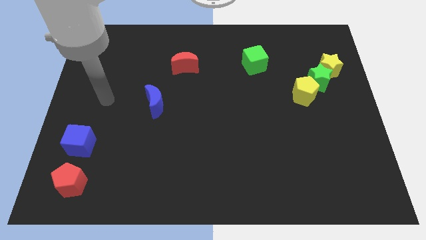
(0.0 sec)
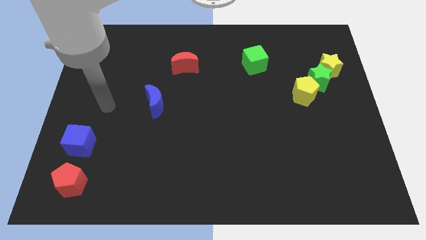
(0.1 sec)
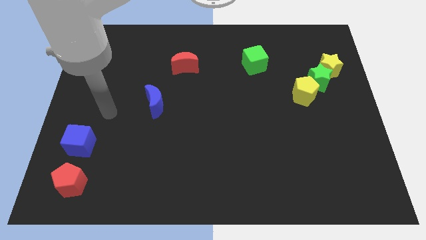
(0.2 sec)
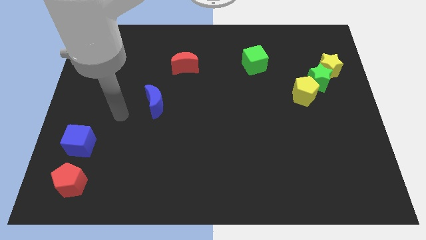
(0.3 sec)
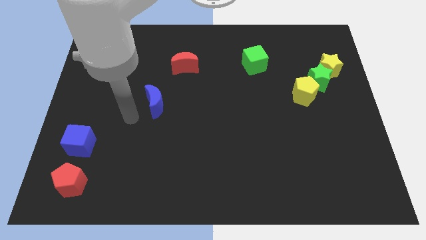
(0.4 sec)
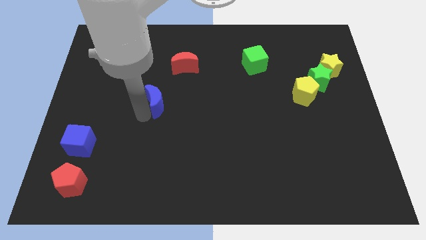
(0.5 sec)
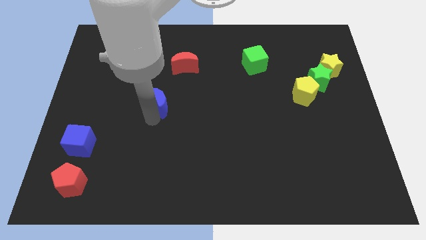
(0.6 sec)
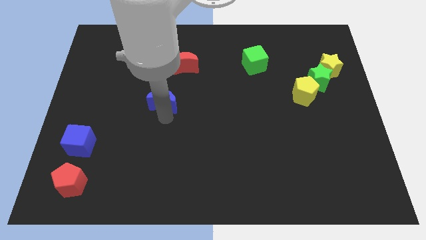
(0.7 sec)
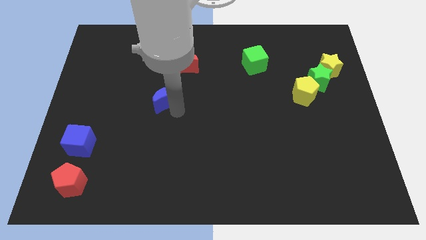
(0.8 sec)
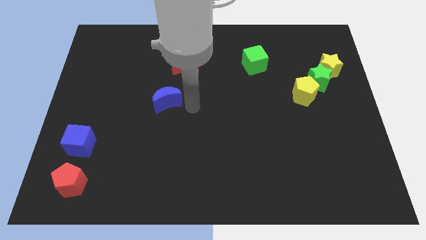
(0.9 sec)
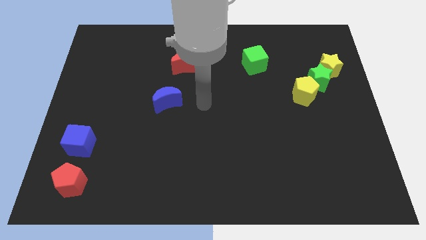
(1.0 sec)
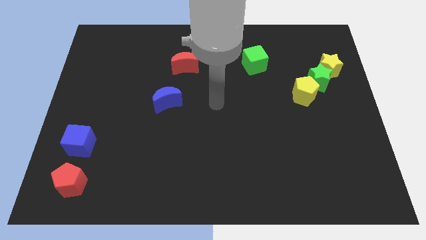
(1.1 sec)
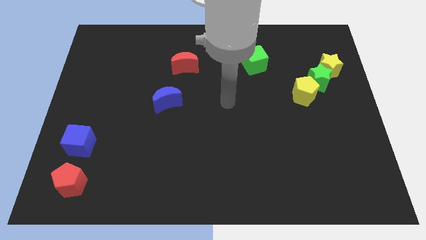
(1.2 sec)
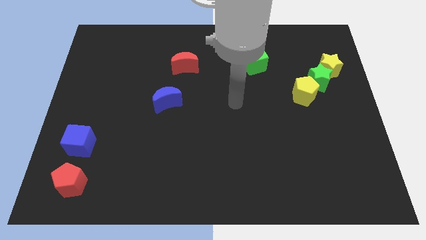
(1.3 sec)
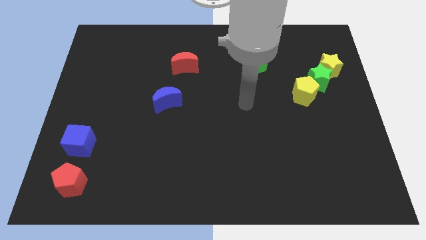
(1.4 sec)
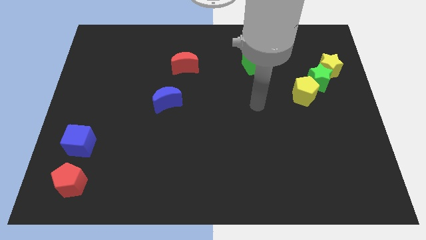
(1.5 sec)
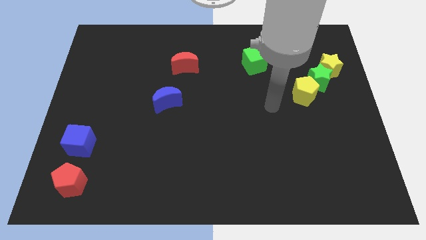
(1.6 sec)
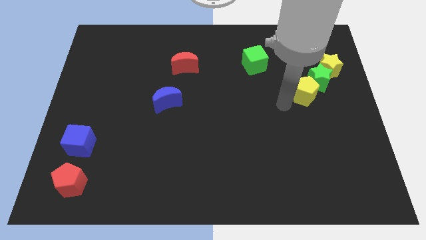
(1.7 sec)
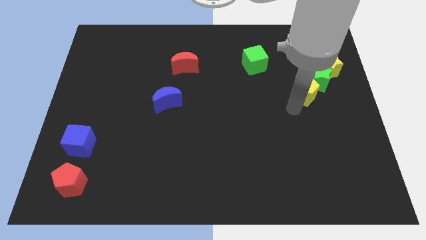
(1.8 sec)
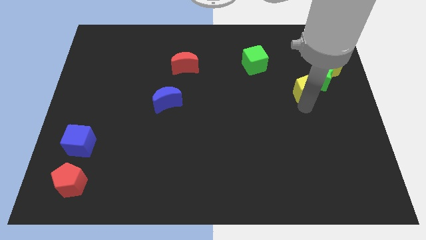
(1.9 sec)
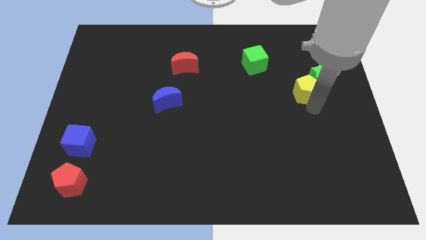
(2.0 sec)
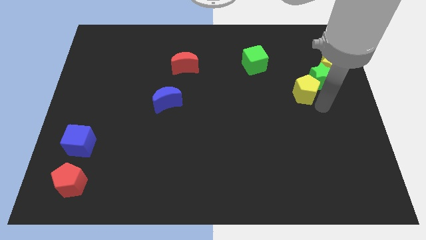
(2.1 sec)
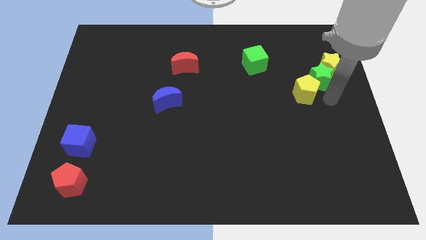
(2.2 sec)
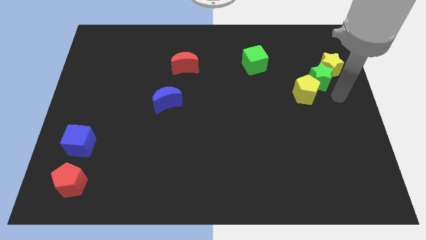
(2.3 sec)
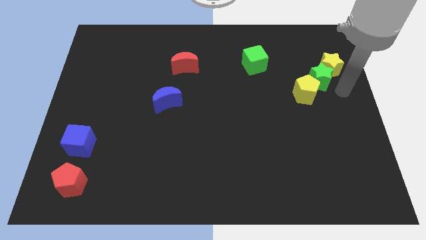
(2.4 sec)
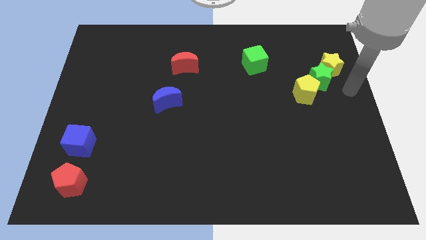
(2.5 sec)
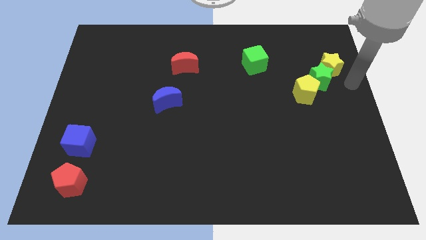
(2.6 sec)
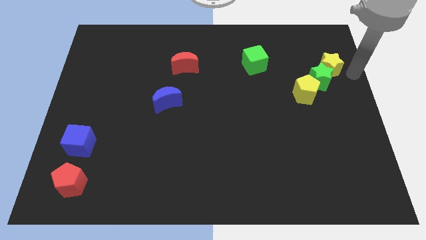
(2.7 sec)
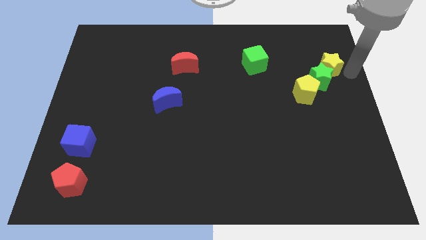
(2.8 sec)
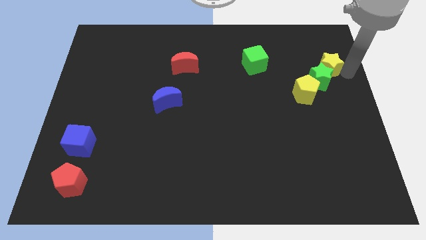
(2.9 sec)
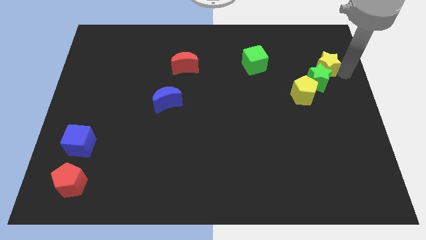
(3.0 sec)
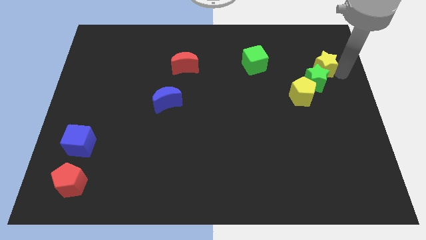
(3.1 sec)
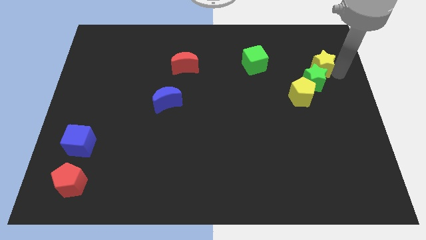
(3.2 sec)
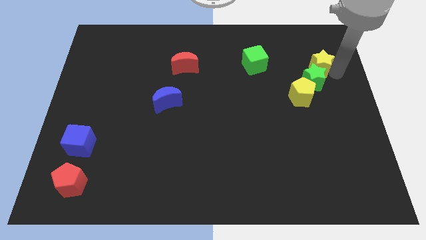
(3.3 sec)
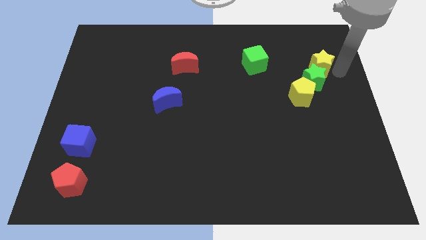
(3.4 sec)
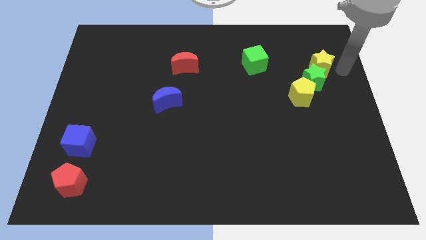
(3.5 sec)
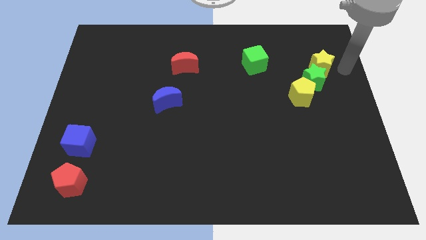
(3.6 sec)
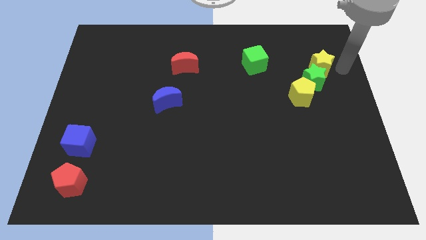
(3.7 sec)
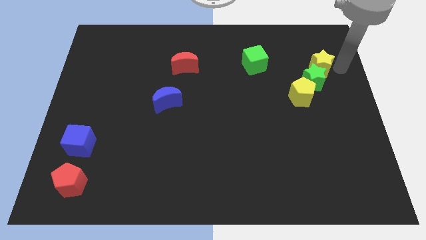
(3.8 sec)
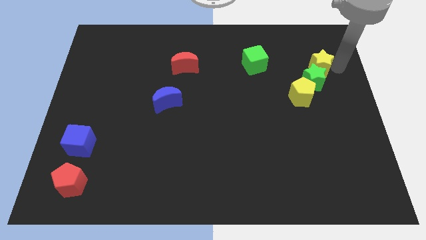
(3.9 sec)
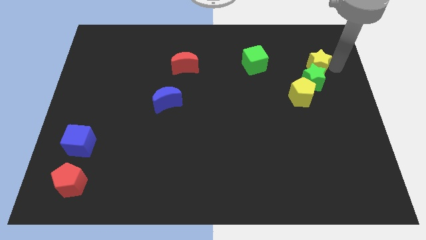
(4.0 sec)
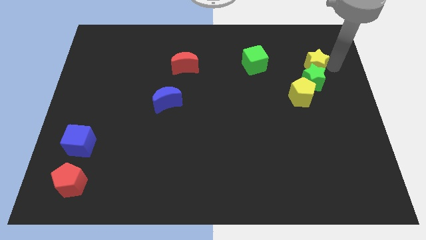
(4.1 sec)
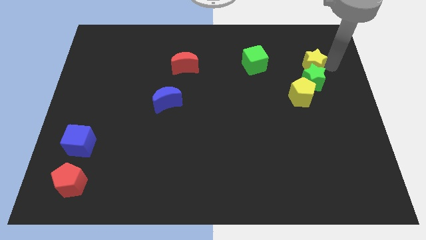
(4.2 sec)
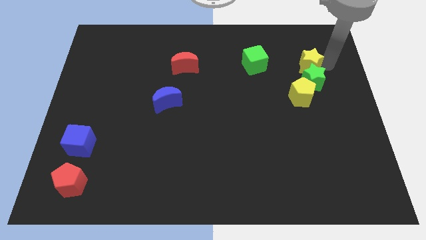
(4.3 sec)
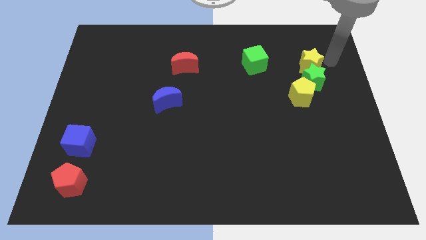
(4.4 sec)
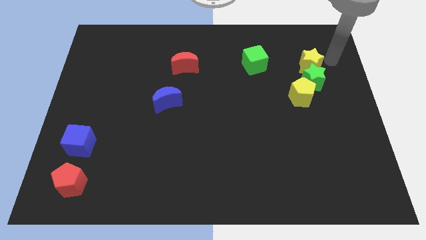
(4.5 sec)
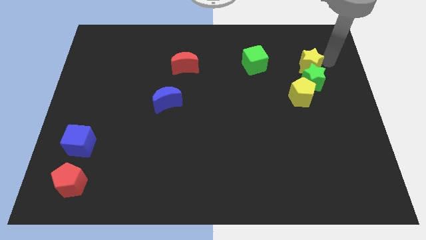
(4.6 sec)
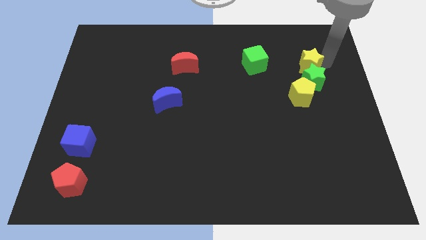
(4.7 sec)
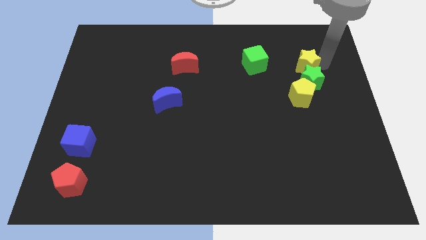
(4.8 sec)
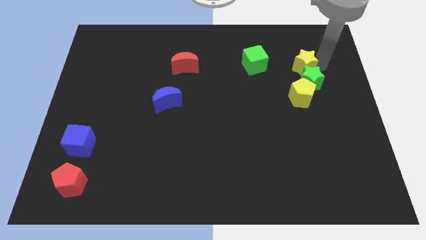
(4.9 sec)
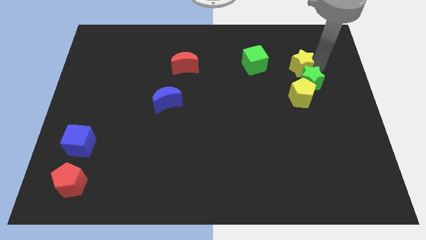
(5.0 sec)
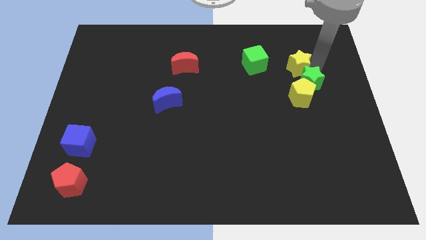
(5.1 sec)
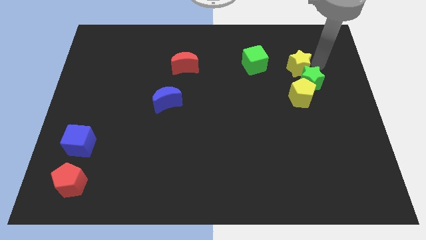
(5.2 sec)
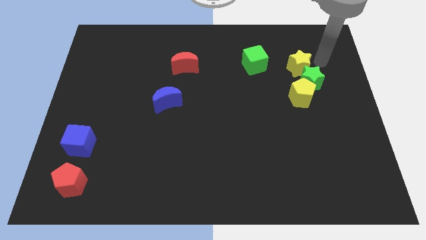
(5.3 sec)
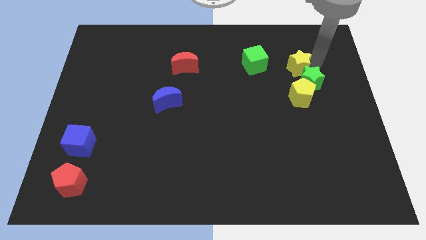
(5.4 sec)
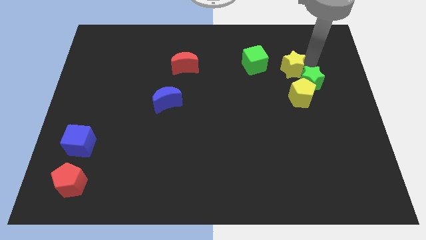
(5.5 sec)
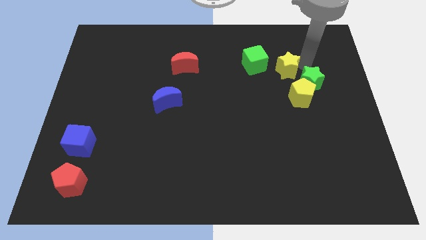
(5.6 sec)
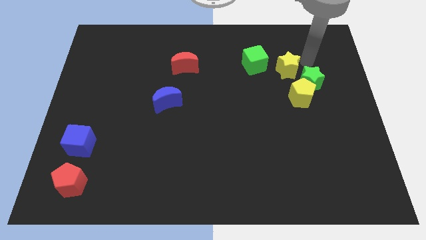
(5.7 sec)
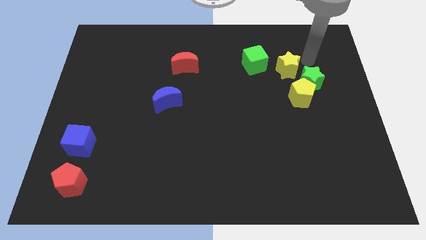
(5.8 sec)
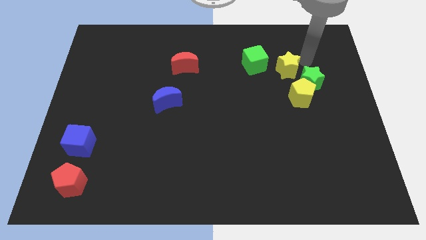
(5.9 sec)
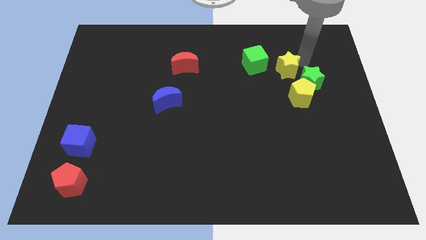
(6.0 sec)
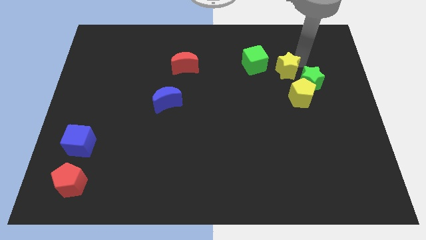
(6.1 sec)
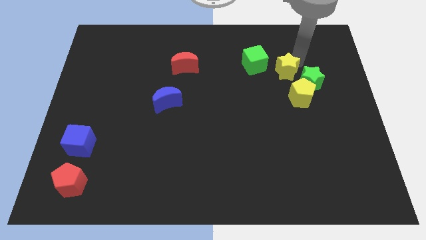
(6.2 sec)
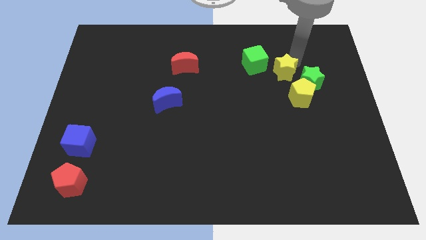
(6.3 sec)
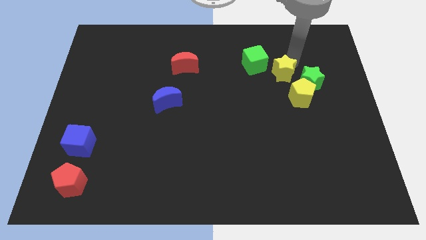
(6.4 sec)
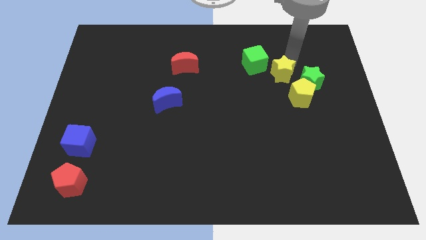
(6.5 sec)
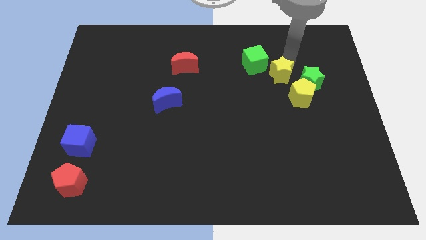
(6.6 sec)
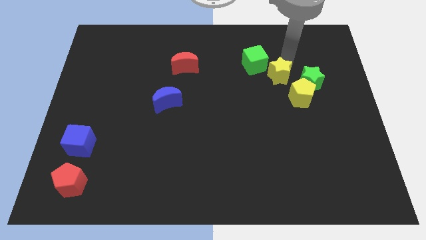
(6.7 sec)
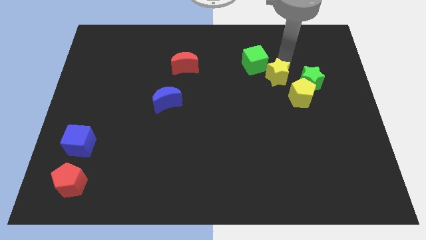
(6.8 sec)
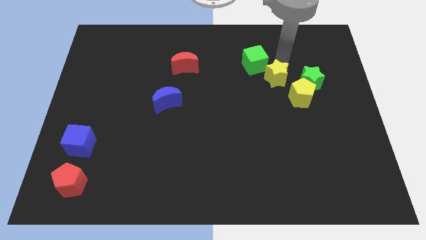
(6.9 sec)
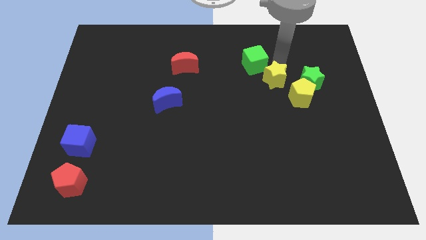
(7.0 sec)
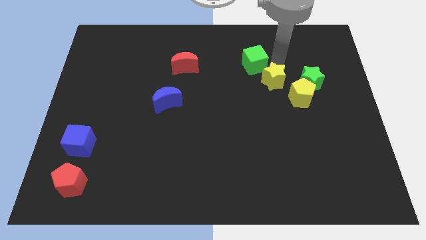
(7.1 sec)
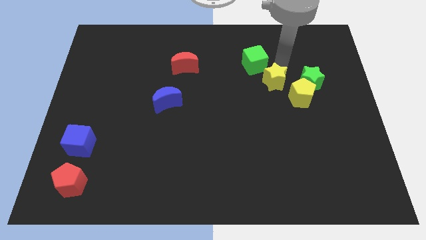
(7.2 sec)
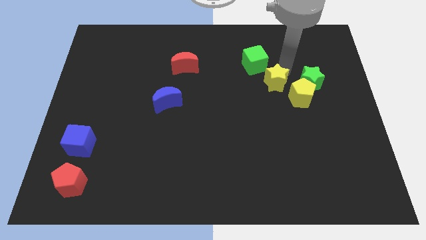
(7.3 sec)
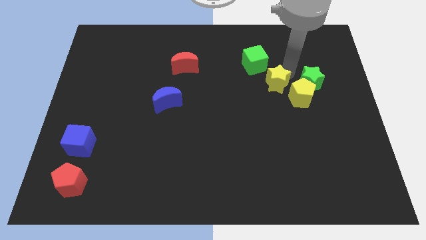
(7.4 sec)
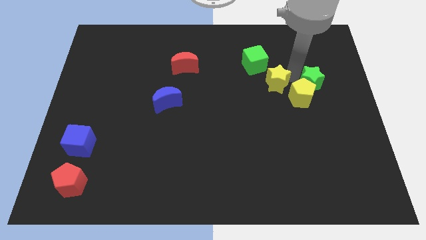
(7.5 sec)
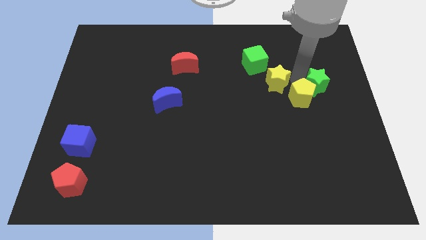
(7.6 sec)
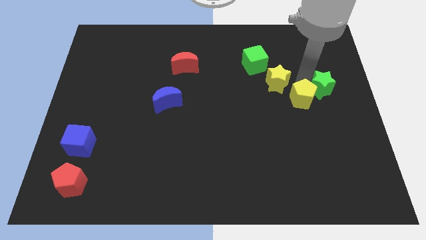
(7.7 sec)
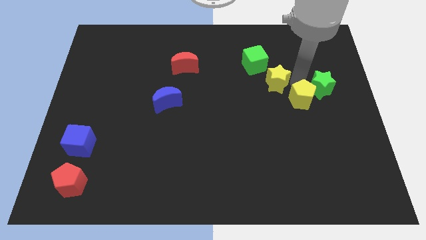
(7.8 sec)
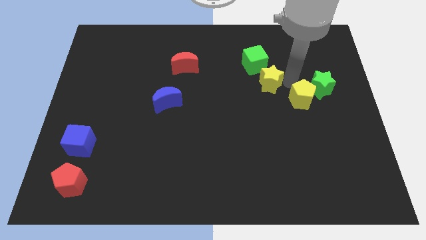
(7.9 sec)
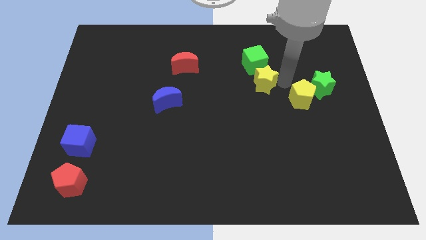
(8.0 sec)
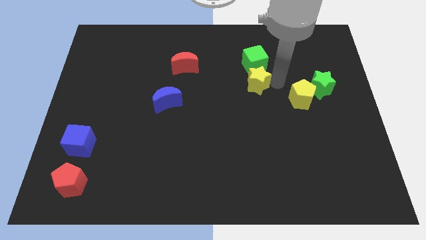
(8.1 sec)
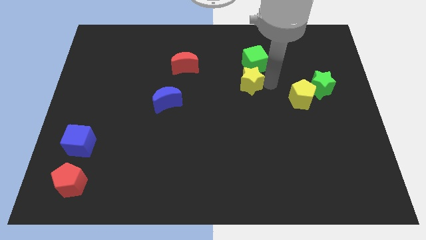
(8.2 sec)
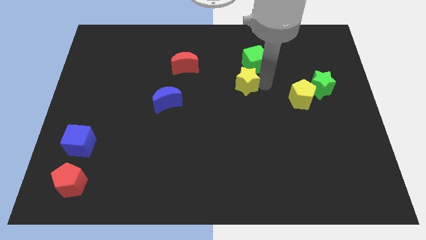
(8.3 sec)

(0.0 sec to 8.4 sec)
push the yellow star left
